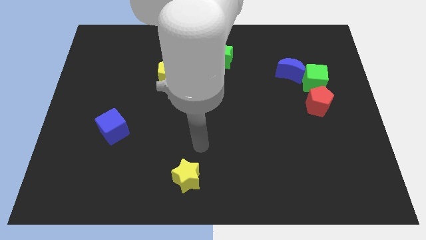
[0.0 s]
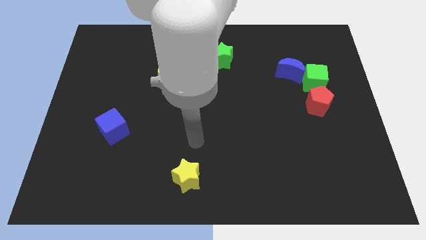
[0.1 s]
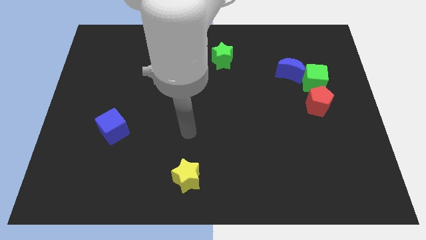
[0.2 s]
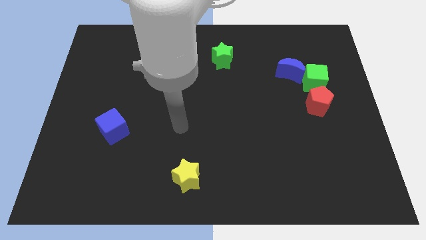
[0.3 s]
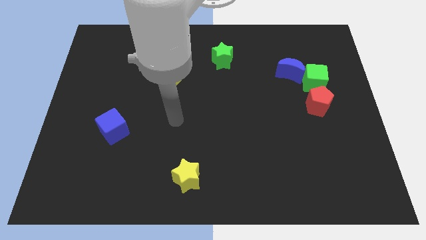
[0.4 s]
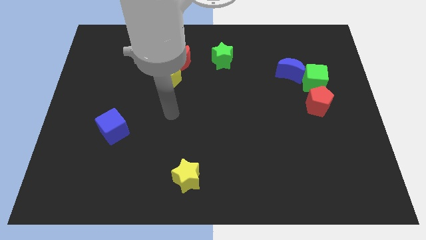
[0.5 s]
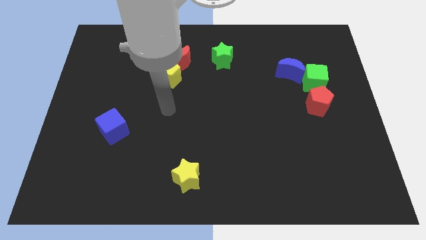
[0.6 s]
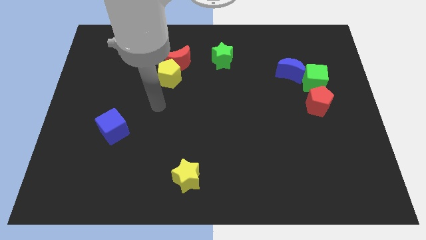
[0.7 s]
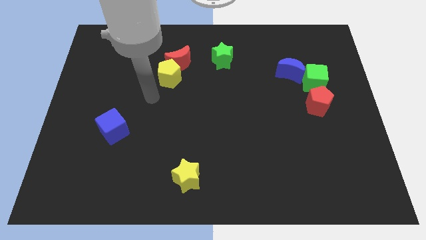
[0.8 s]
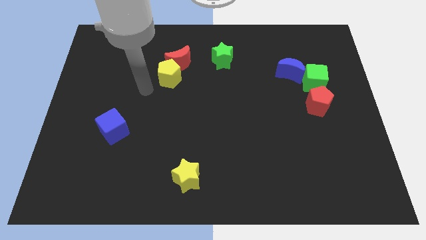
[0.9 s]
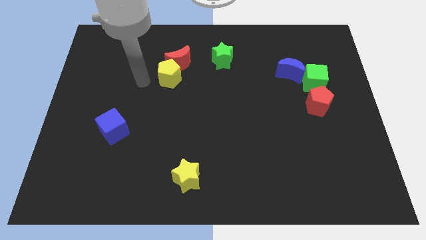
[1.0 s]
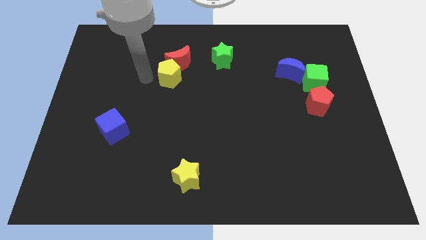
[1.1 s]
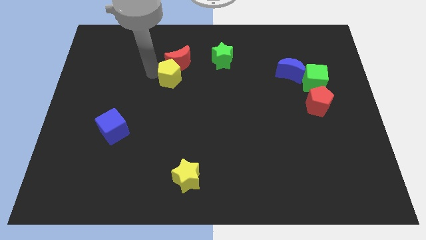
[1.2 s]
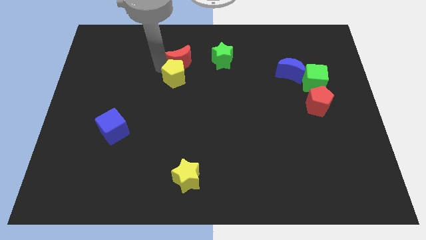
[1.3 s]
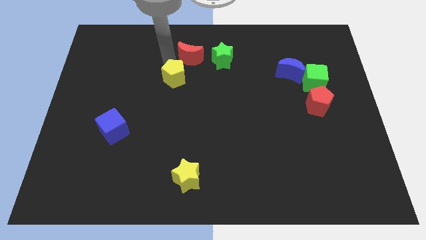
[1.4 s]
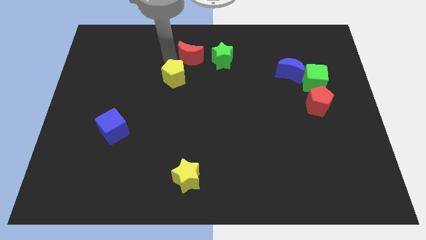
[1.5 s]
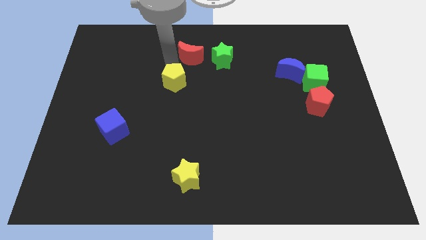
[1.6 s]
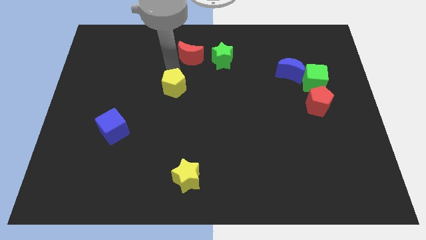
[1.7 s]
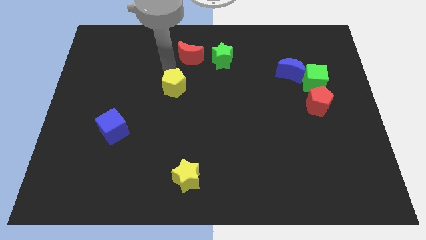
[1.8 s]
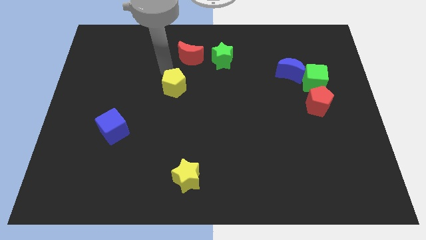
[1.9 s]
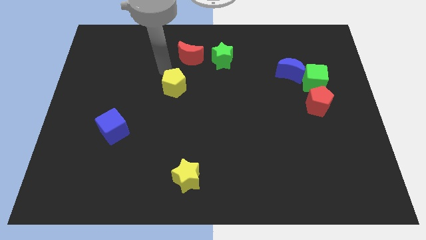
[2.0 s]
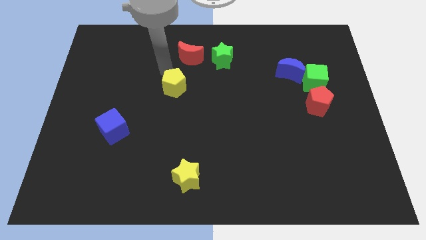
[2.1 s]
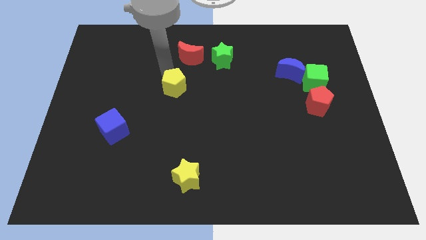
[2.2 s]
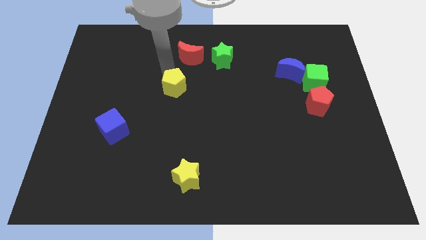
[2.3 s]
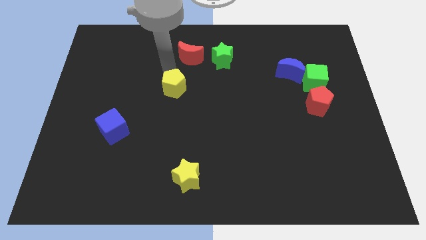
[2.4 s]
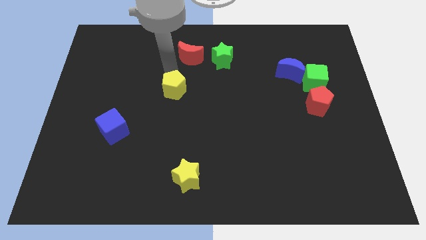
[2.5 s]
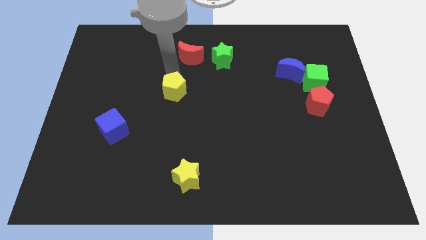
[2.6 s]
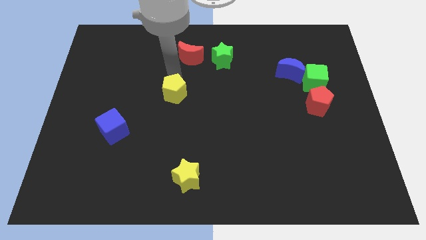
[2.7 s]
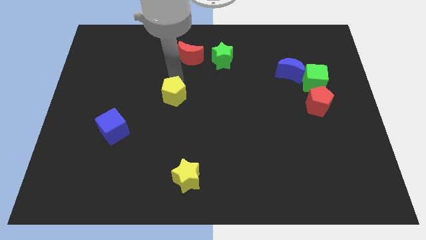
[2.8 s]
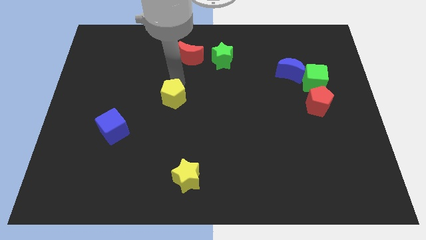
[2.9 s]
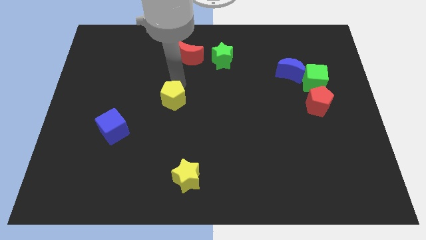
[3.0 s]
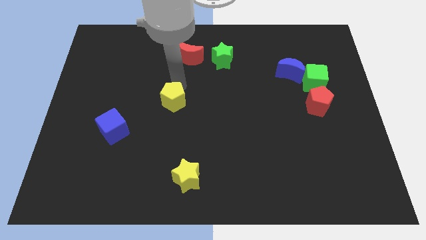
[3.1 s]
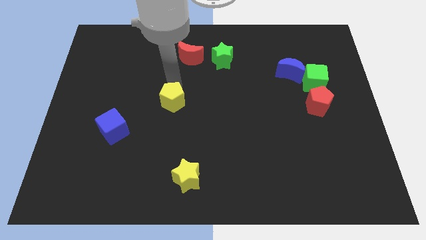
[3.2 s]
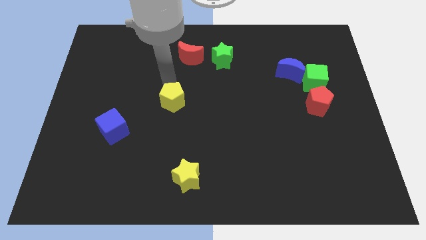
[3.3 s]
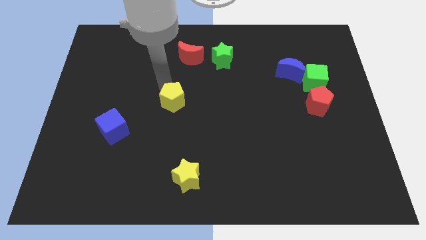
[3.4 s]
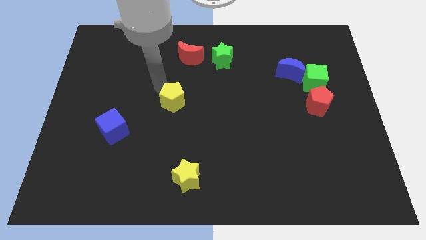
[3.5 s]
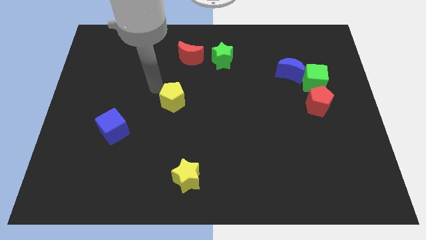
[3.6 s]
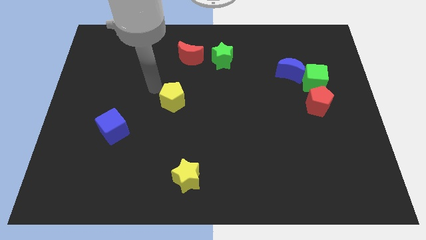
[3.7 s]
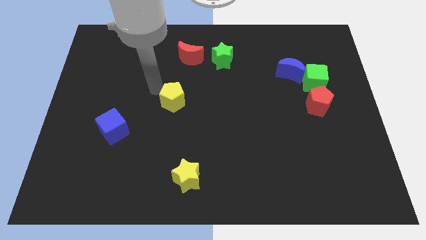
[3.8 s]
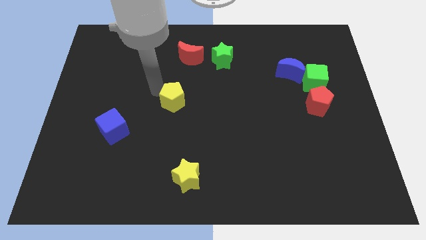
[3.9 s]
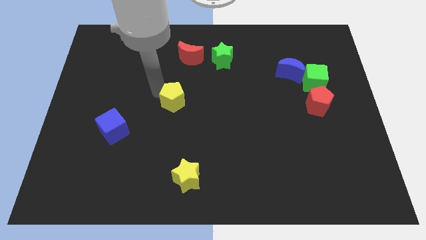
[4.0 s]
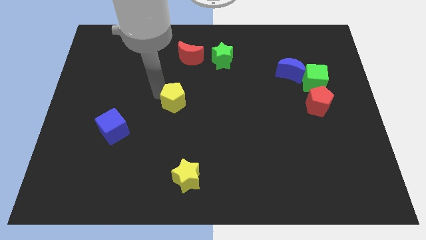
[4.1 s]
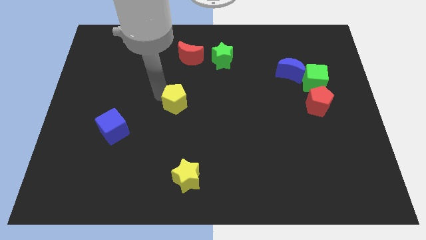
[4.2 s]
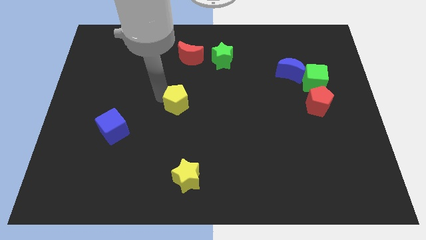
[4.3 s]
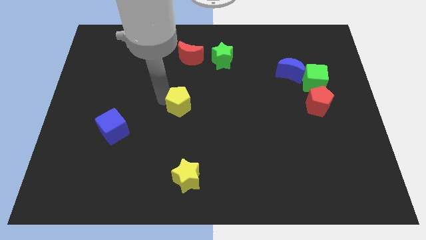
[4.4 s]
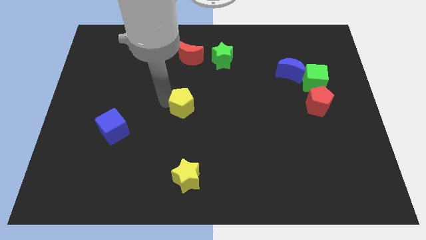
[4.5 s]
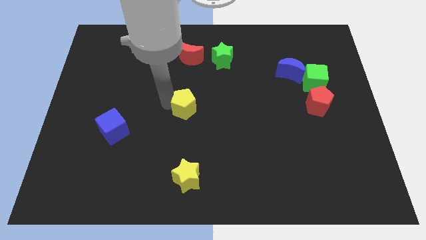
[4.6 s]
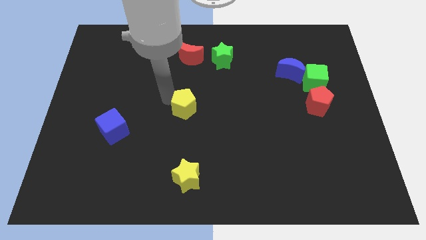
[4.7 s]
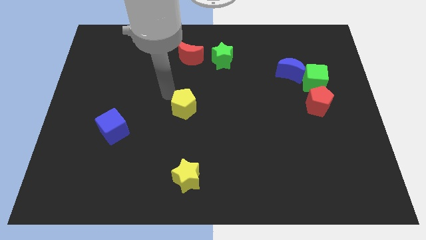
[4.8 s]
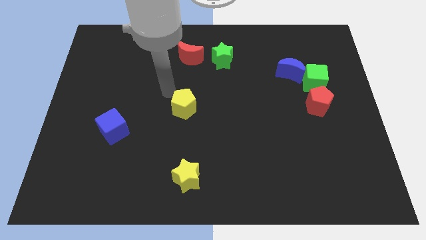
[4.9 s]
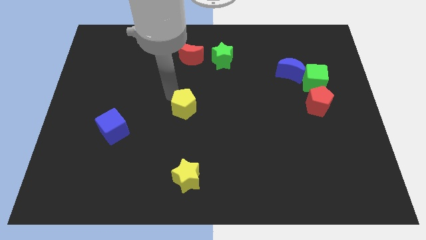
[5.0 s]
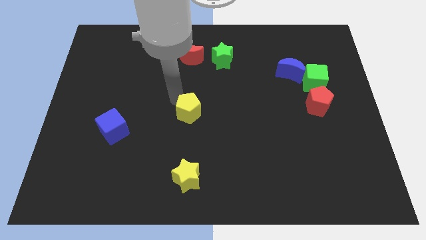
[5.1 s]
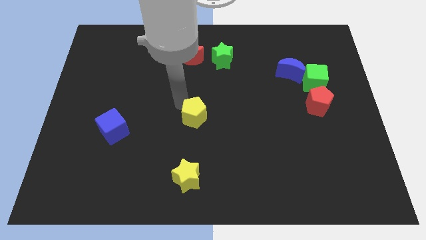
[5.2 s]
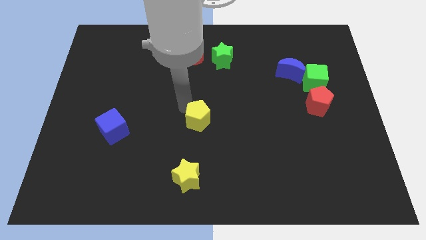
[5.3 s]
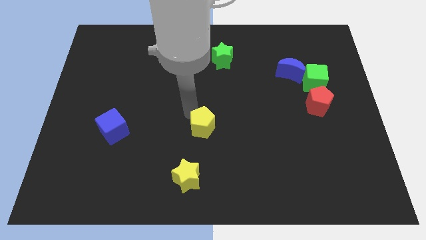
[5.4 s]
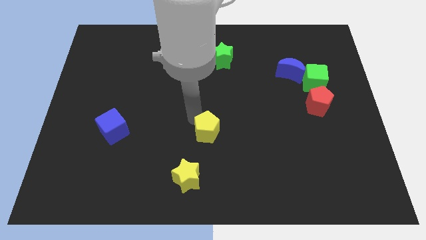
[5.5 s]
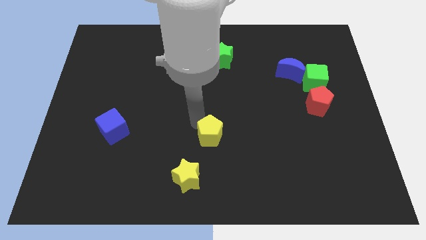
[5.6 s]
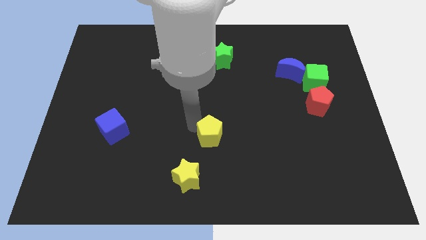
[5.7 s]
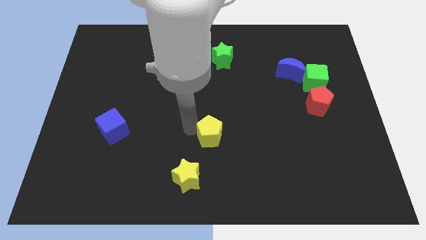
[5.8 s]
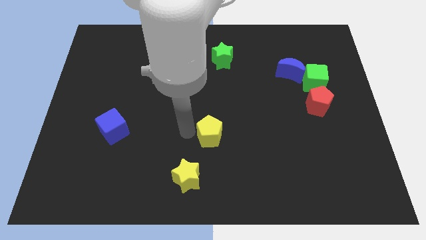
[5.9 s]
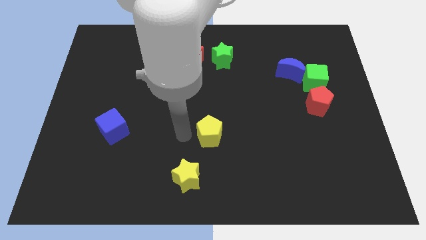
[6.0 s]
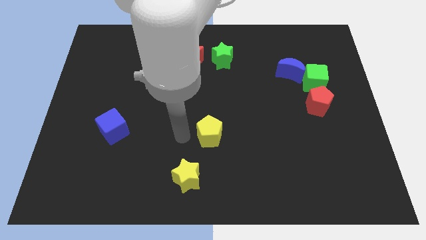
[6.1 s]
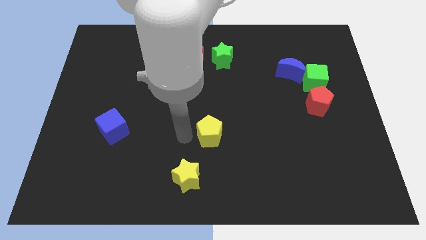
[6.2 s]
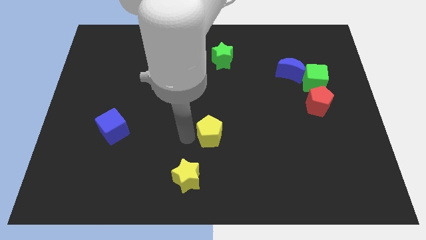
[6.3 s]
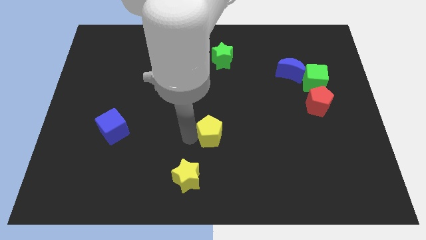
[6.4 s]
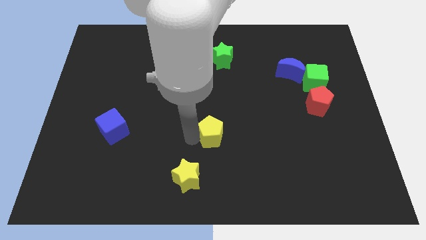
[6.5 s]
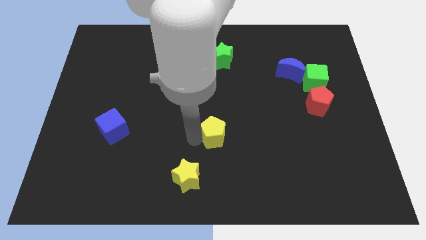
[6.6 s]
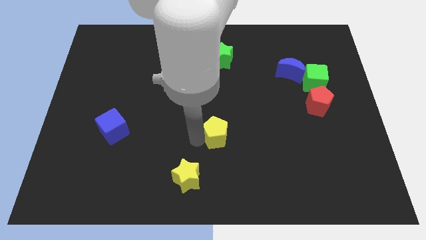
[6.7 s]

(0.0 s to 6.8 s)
move the yellow pentagon down and right diagonally

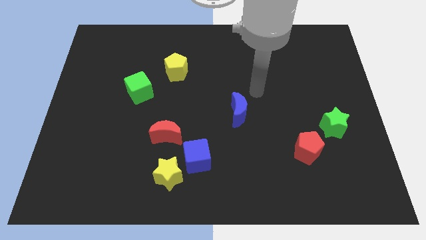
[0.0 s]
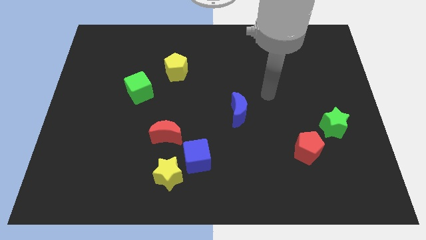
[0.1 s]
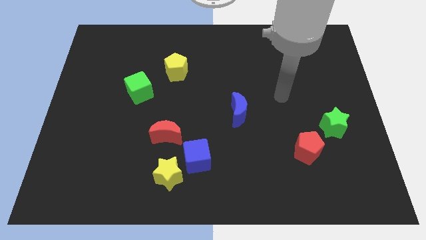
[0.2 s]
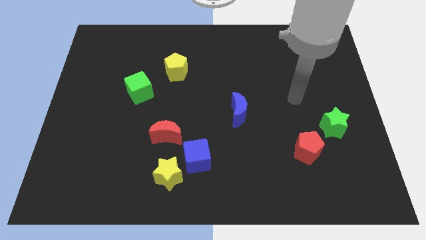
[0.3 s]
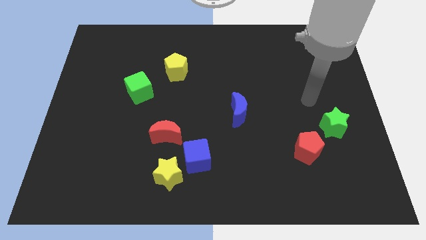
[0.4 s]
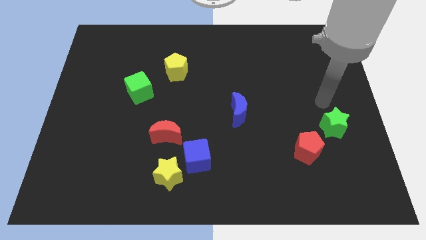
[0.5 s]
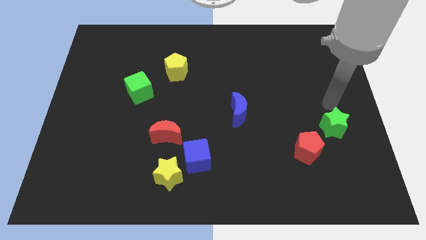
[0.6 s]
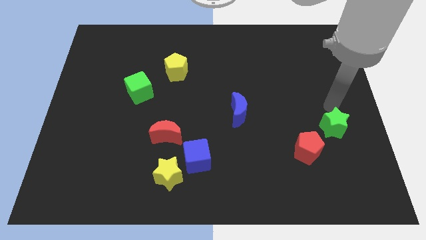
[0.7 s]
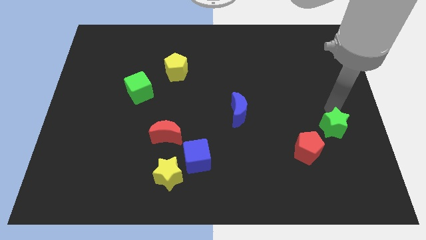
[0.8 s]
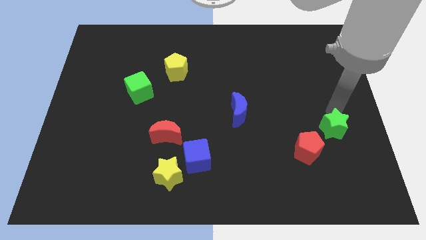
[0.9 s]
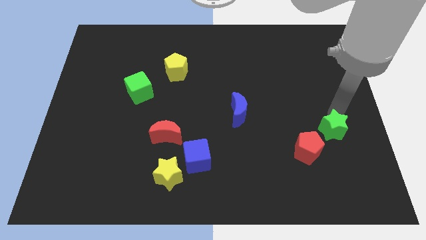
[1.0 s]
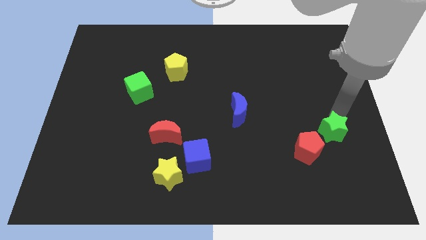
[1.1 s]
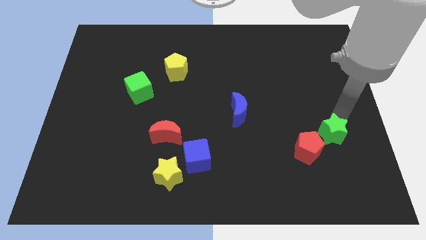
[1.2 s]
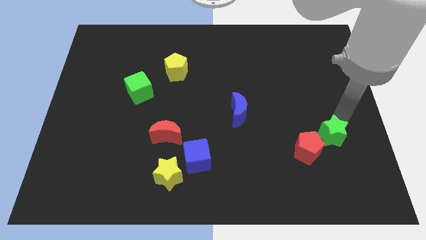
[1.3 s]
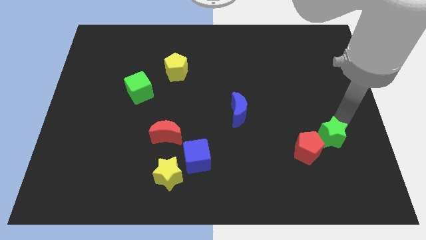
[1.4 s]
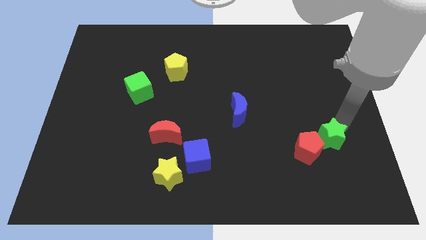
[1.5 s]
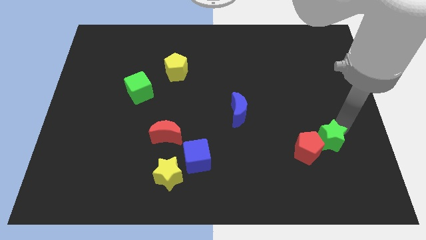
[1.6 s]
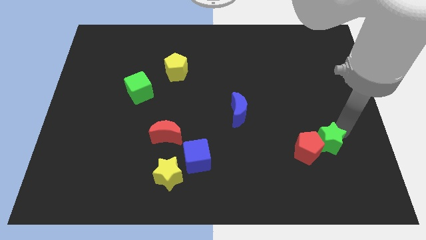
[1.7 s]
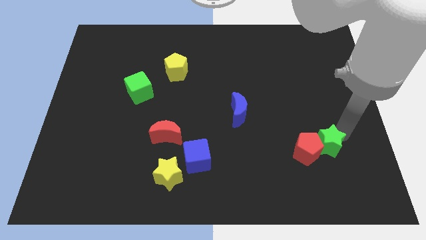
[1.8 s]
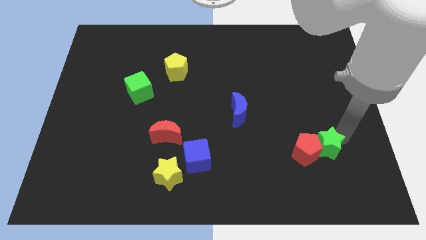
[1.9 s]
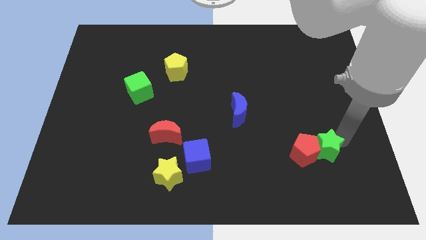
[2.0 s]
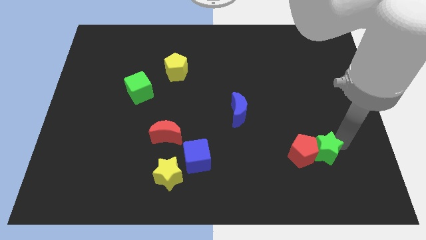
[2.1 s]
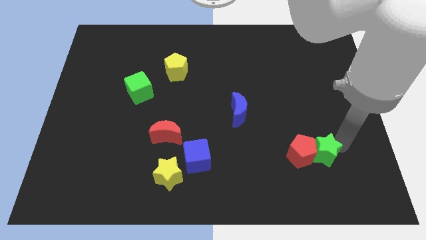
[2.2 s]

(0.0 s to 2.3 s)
push the green star downwards and then to the left slightly
